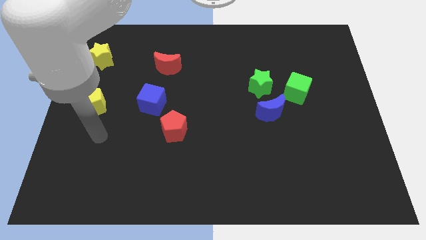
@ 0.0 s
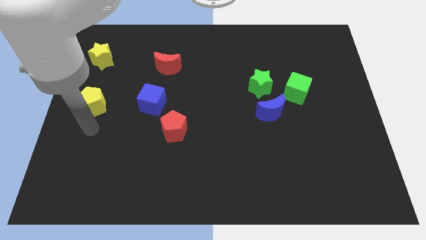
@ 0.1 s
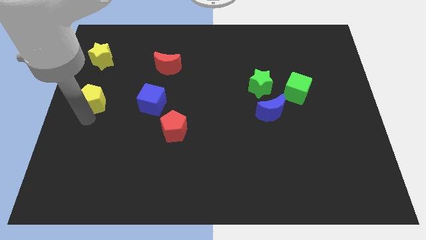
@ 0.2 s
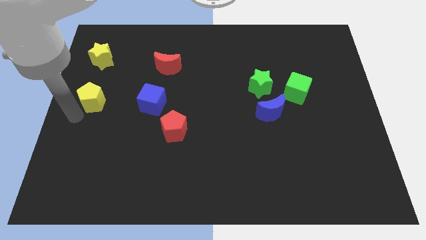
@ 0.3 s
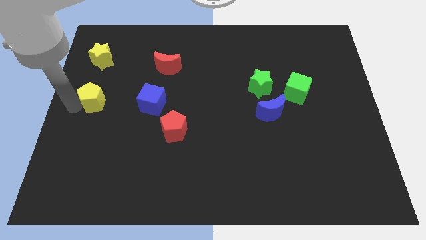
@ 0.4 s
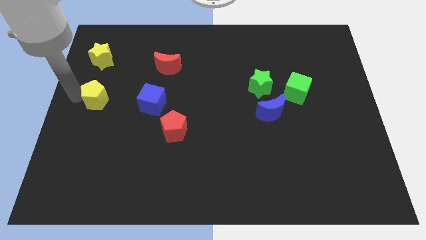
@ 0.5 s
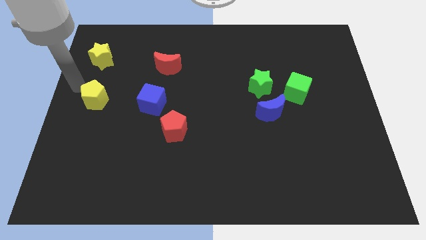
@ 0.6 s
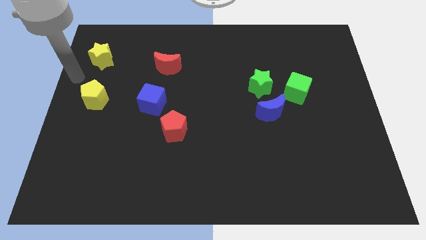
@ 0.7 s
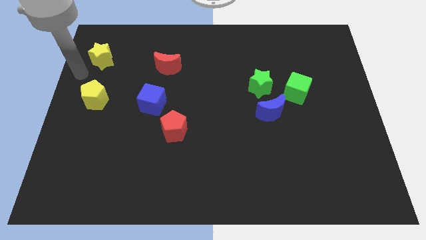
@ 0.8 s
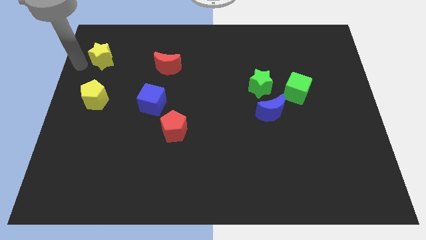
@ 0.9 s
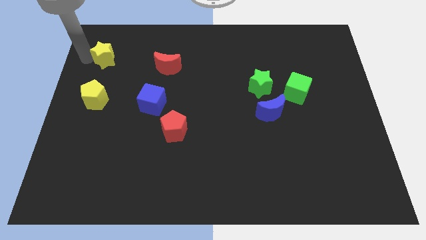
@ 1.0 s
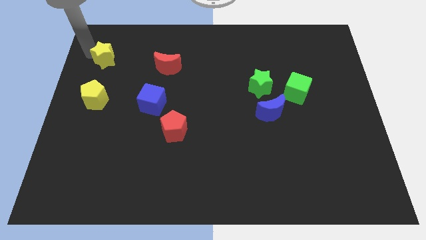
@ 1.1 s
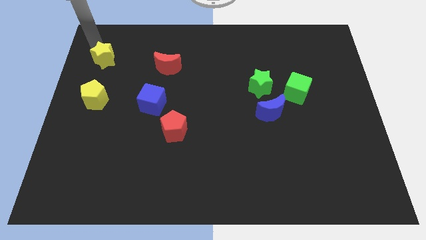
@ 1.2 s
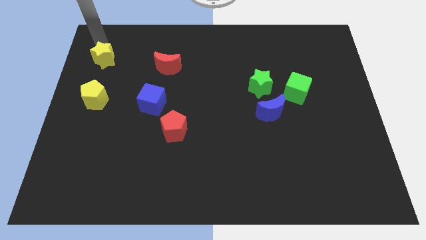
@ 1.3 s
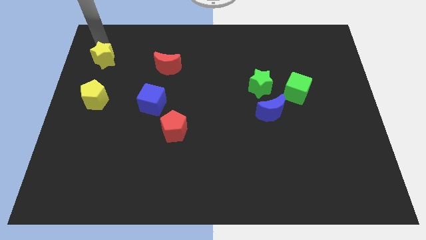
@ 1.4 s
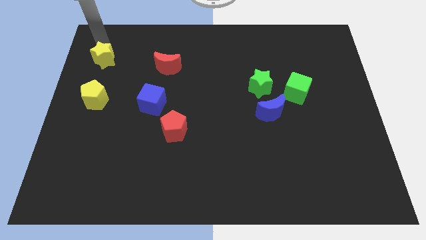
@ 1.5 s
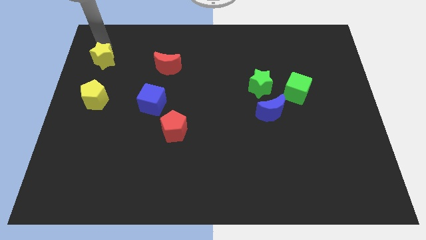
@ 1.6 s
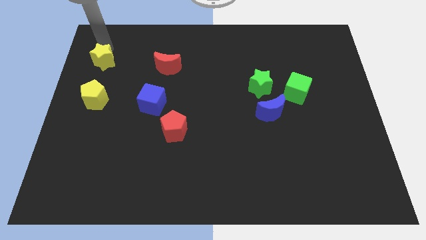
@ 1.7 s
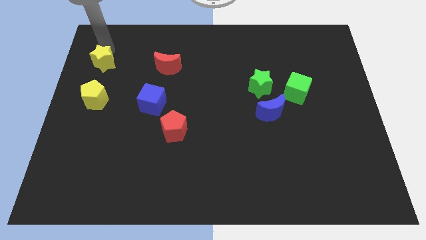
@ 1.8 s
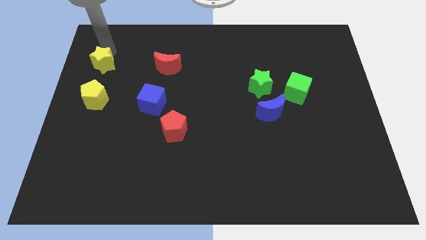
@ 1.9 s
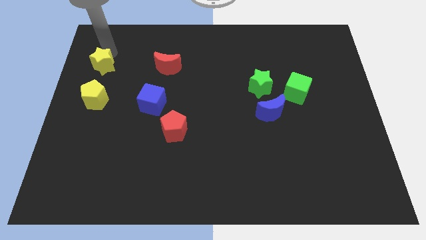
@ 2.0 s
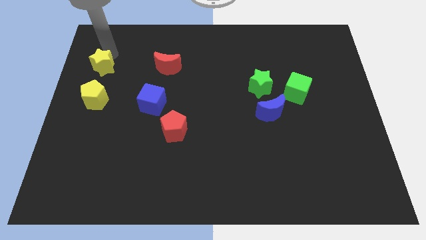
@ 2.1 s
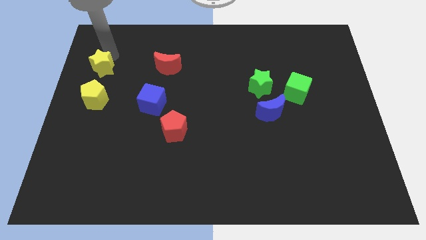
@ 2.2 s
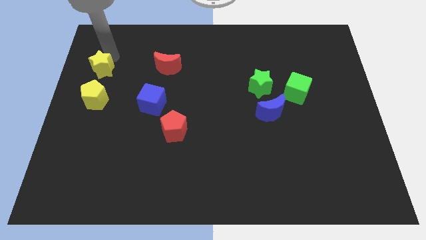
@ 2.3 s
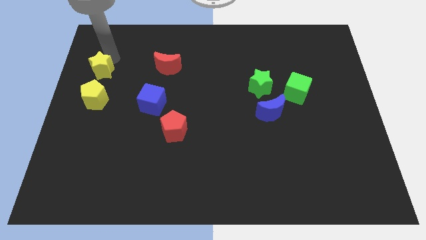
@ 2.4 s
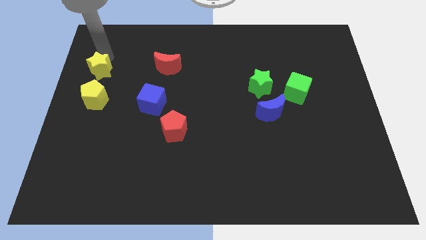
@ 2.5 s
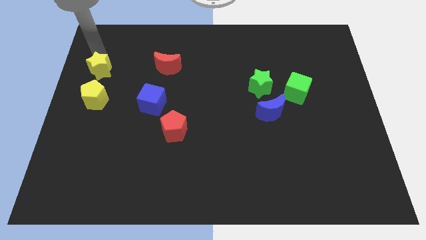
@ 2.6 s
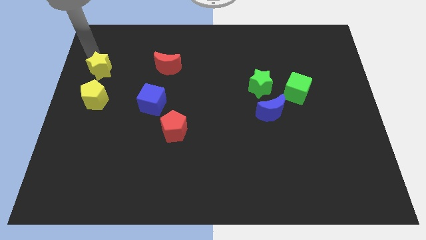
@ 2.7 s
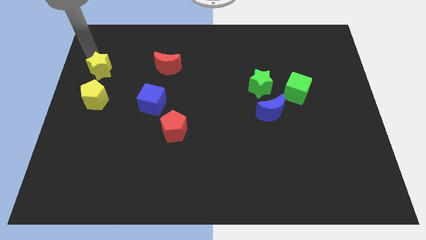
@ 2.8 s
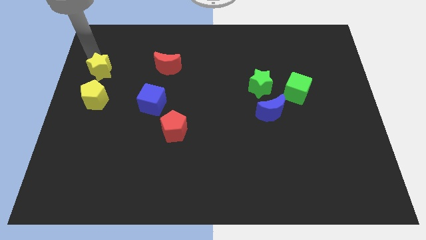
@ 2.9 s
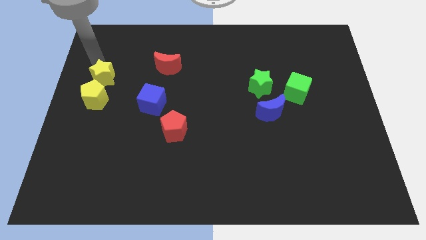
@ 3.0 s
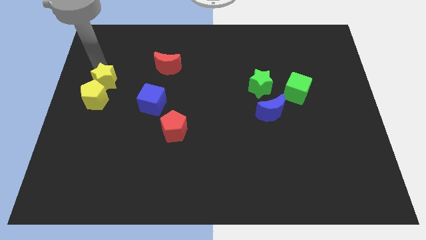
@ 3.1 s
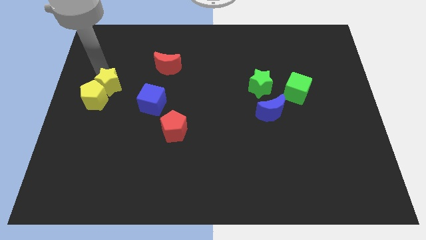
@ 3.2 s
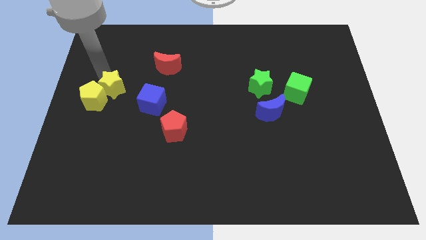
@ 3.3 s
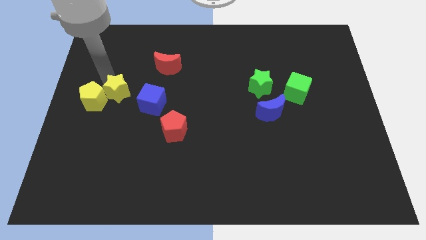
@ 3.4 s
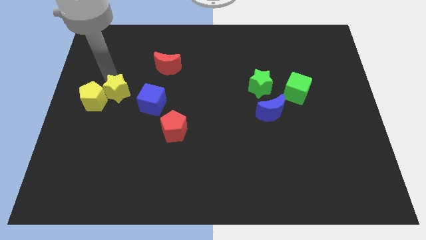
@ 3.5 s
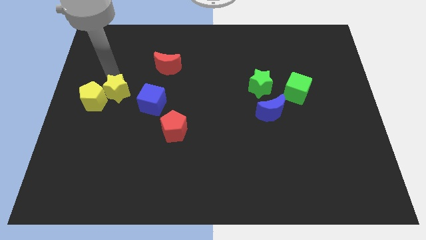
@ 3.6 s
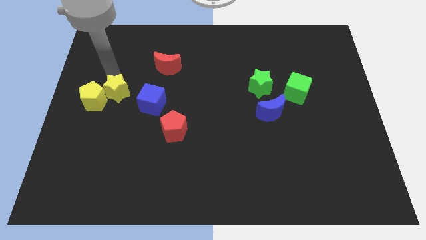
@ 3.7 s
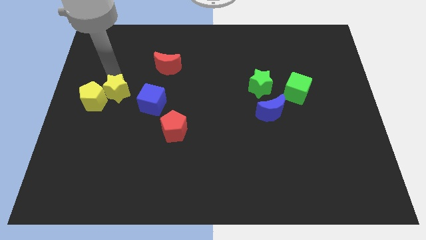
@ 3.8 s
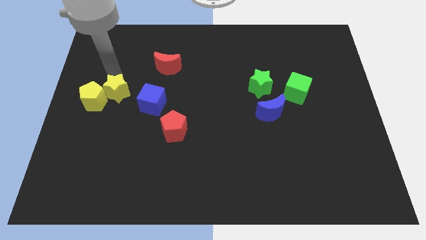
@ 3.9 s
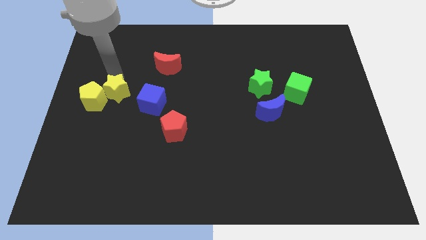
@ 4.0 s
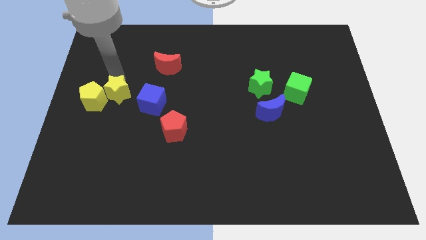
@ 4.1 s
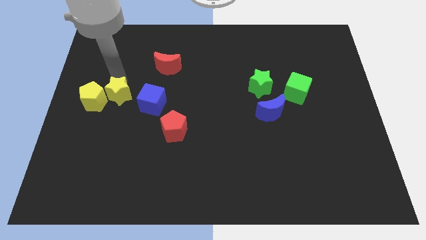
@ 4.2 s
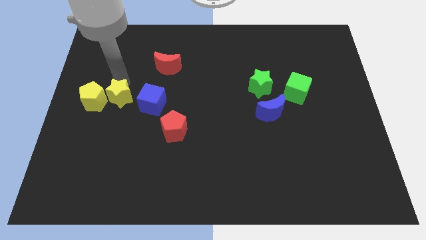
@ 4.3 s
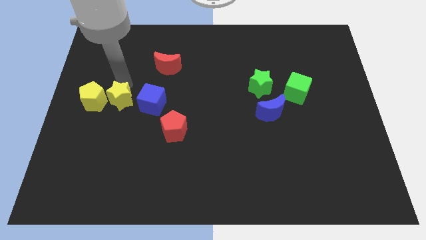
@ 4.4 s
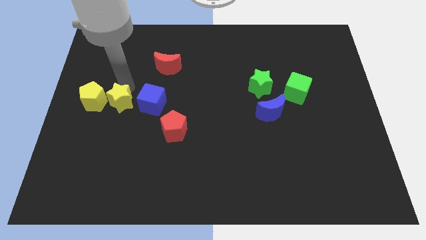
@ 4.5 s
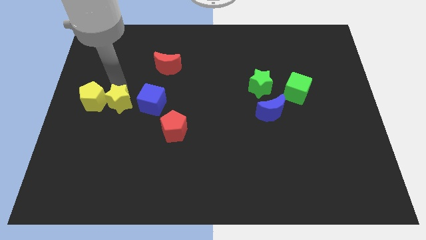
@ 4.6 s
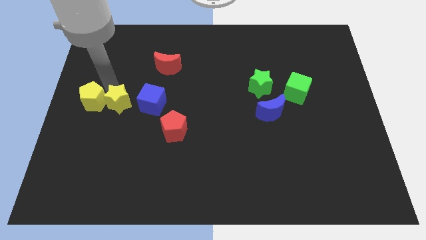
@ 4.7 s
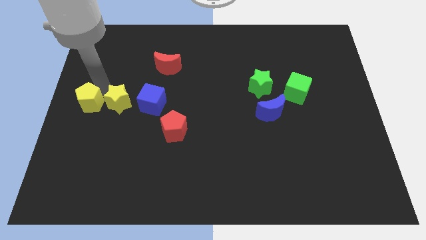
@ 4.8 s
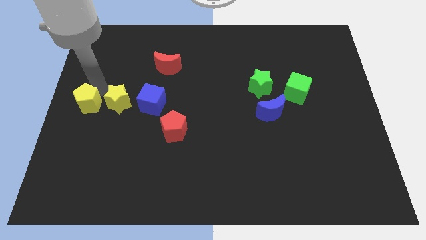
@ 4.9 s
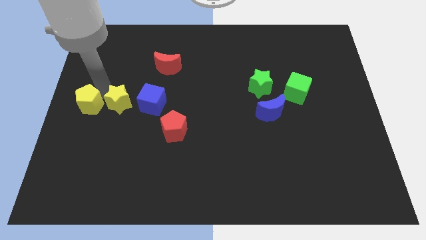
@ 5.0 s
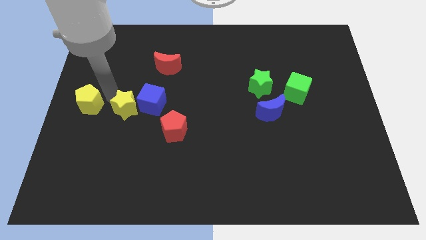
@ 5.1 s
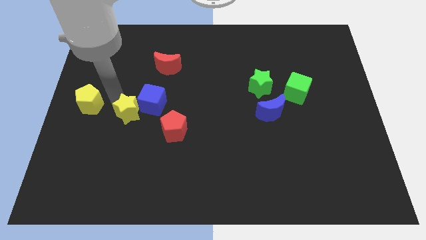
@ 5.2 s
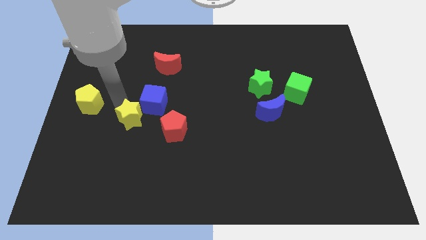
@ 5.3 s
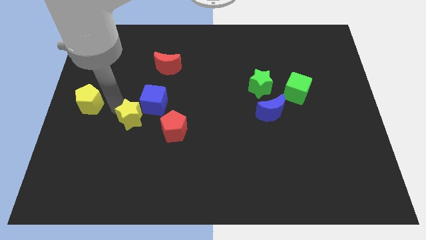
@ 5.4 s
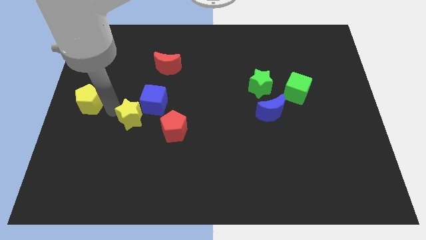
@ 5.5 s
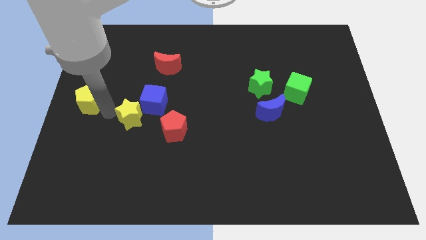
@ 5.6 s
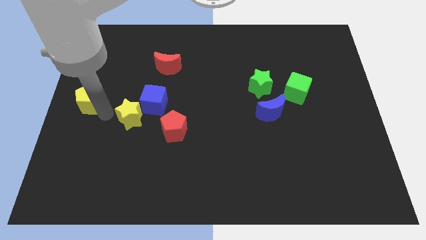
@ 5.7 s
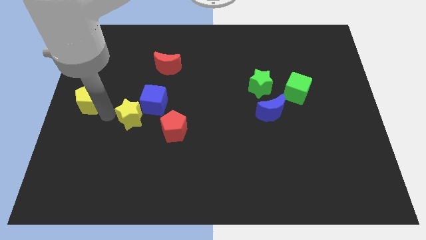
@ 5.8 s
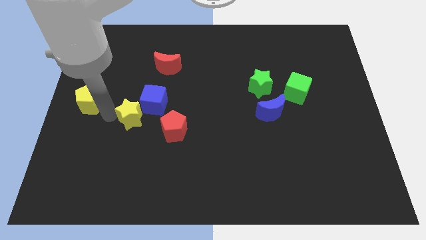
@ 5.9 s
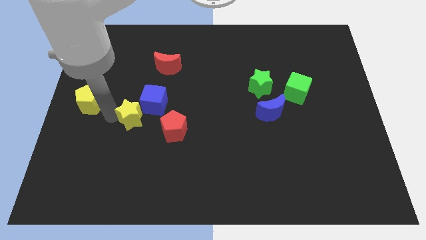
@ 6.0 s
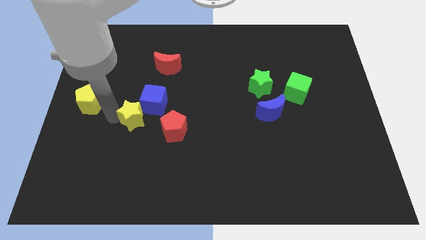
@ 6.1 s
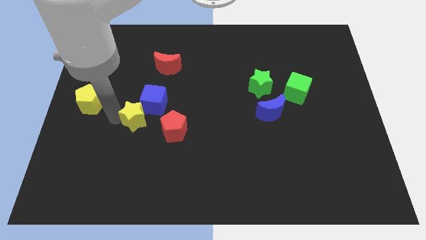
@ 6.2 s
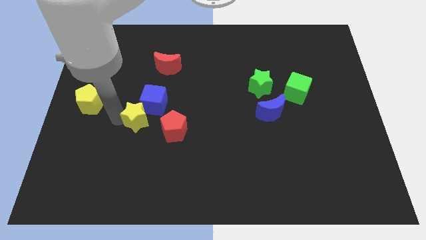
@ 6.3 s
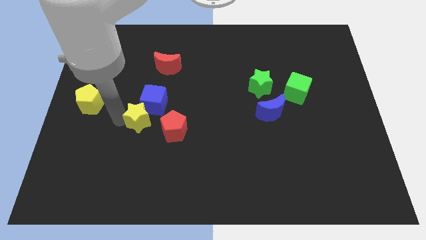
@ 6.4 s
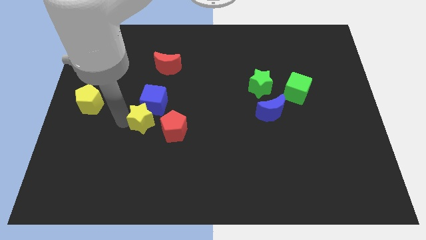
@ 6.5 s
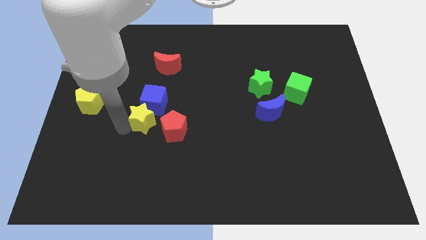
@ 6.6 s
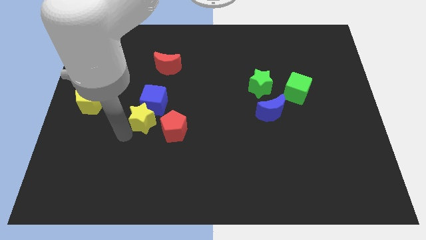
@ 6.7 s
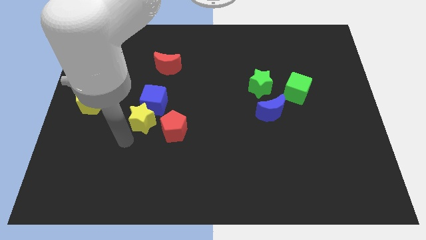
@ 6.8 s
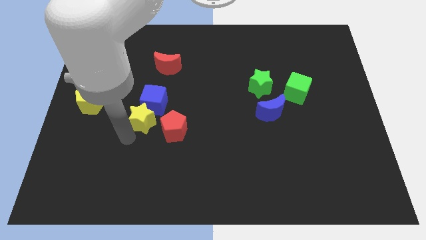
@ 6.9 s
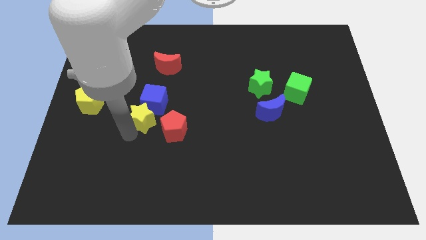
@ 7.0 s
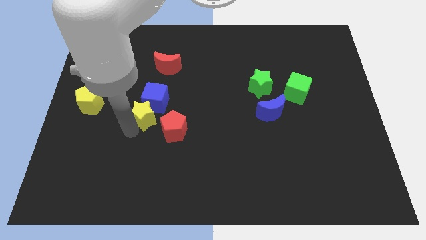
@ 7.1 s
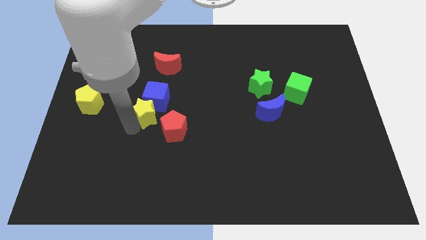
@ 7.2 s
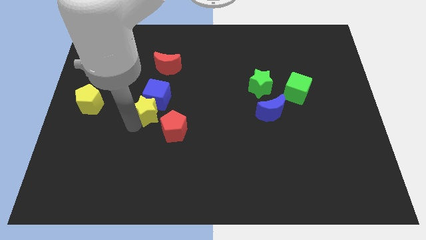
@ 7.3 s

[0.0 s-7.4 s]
push the yellow star to the bottom of the red moon

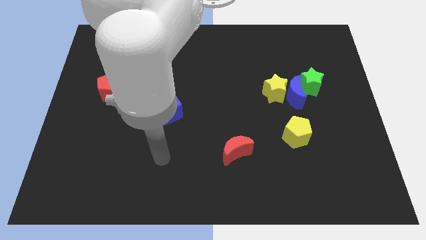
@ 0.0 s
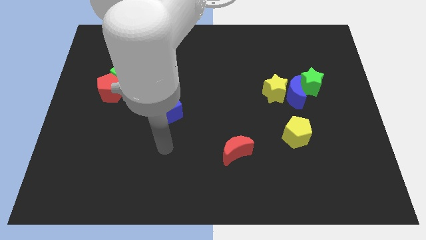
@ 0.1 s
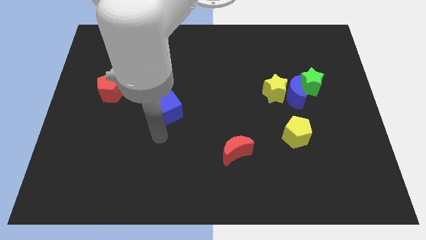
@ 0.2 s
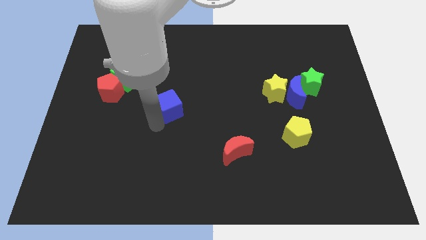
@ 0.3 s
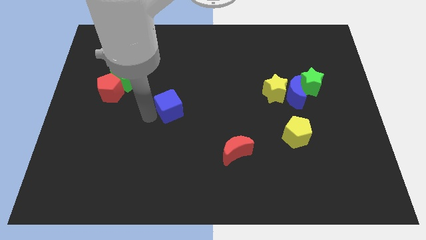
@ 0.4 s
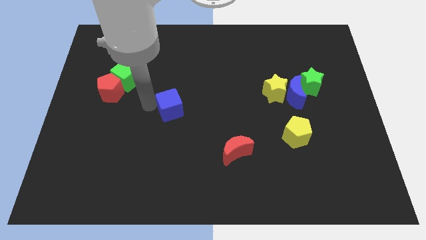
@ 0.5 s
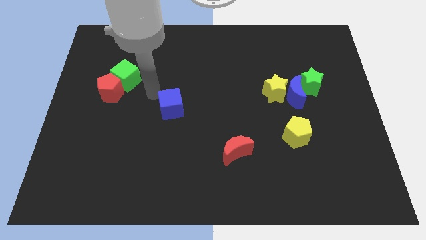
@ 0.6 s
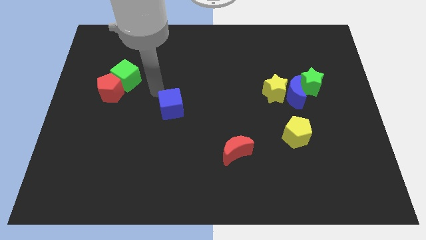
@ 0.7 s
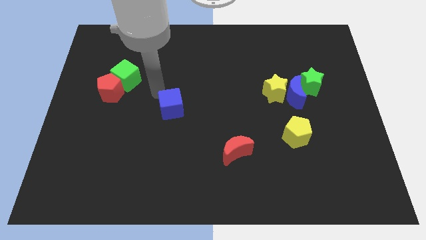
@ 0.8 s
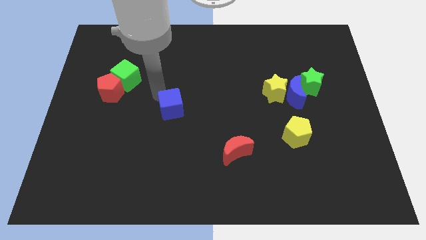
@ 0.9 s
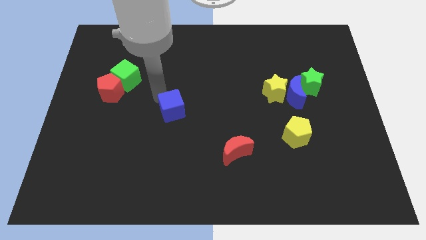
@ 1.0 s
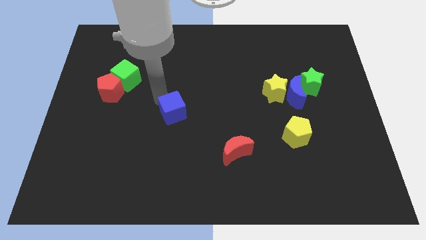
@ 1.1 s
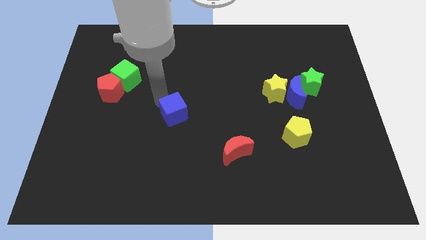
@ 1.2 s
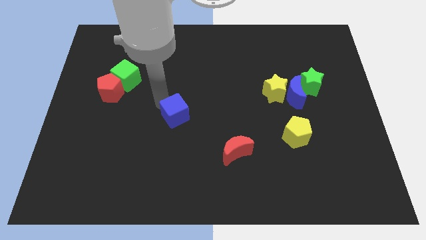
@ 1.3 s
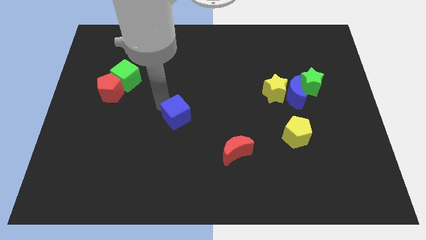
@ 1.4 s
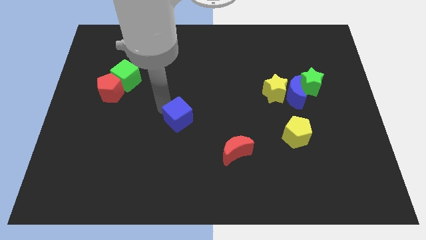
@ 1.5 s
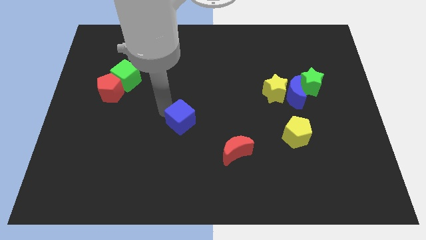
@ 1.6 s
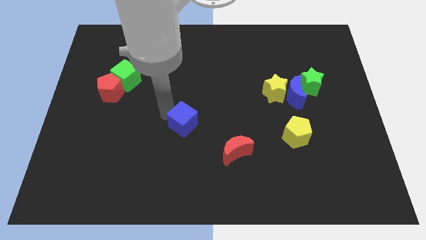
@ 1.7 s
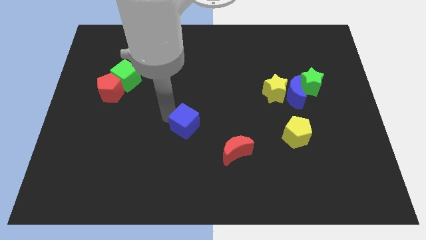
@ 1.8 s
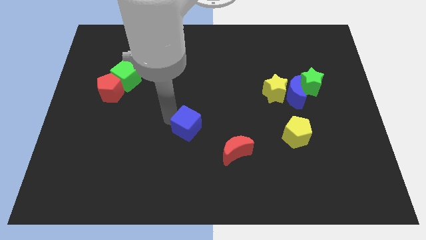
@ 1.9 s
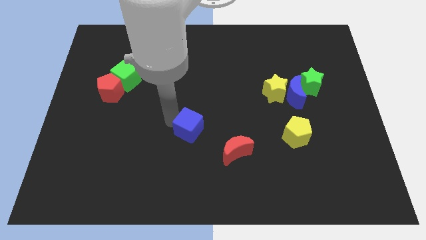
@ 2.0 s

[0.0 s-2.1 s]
put the blue cube to the top left of the red moon
